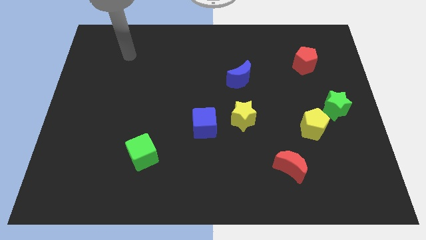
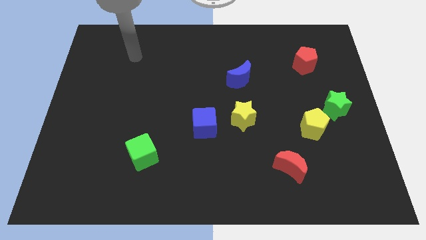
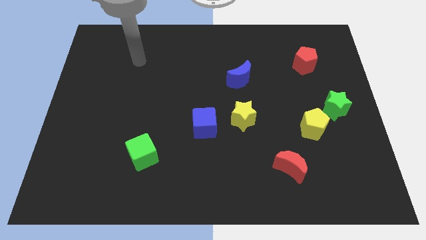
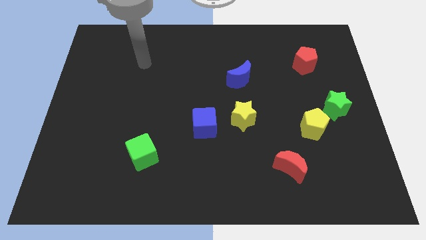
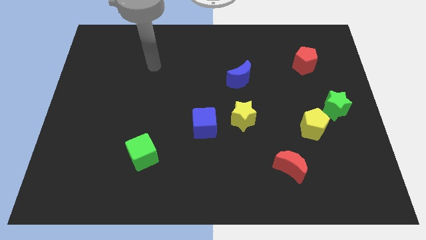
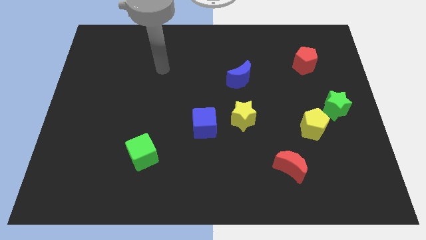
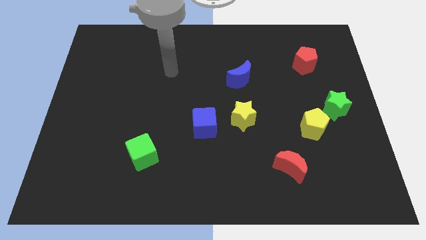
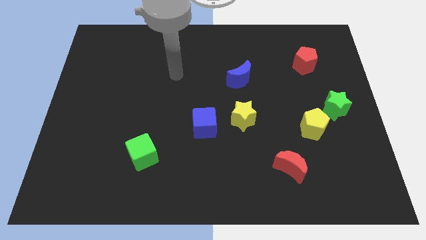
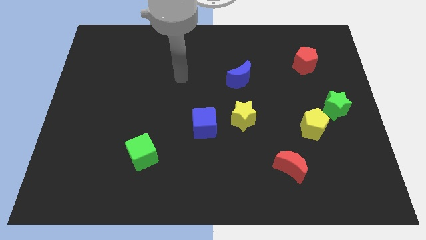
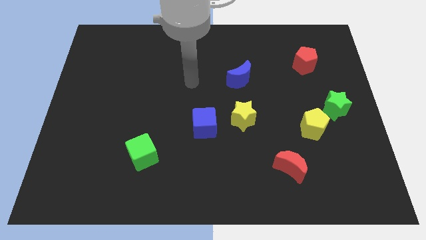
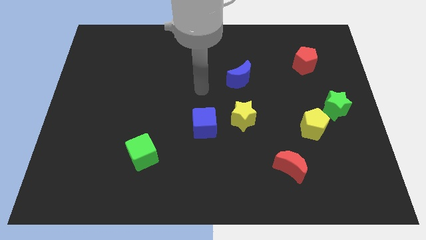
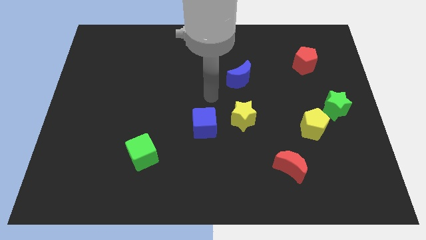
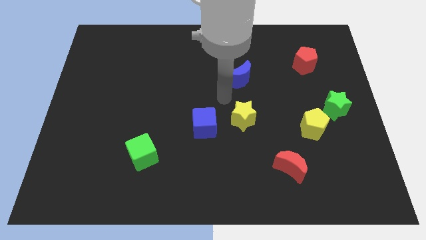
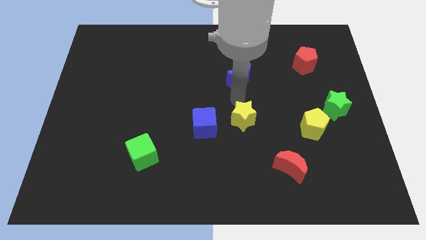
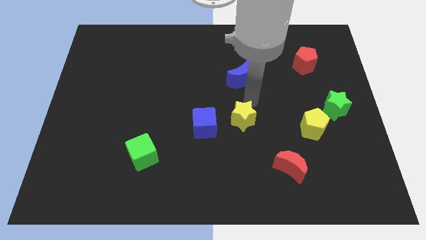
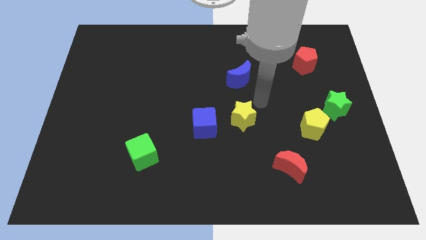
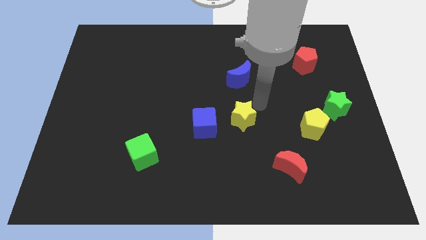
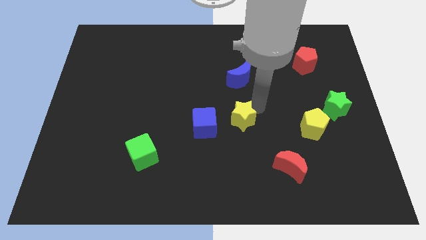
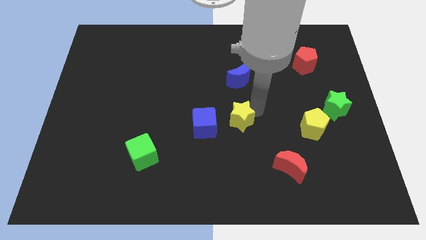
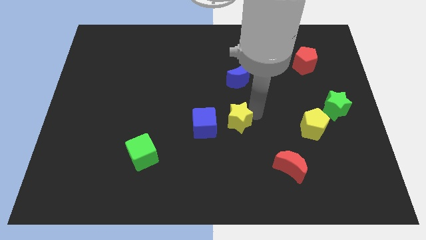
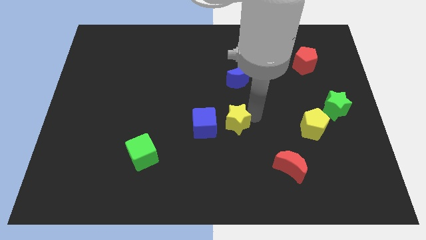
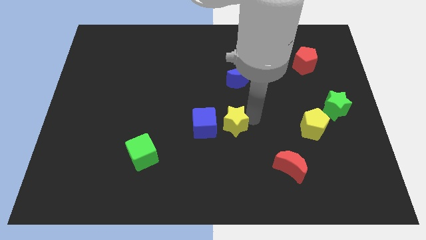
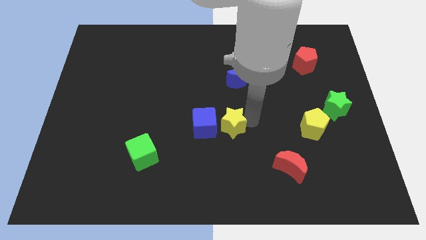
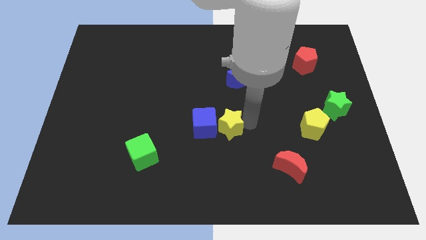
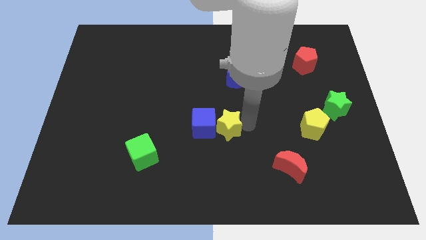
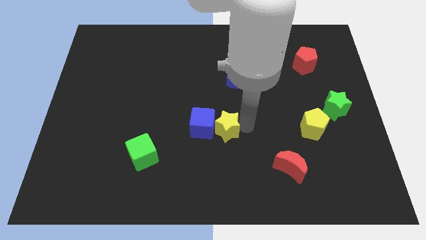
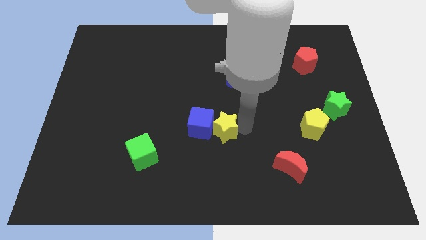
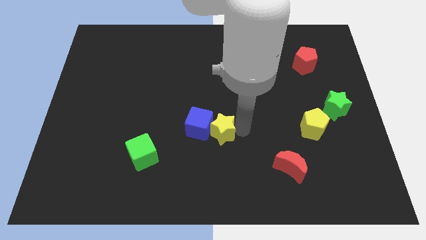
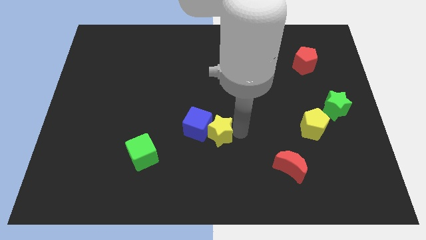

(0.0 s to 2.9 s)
move the yellow star a bit diagonally down and to the left

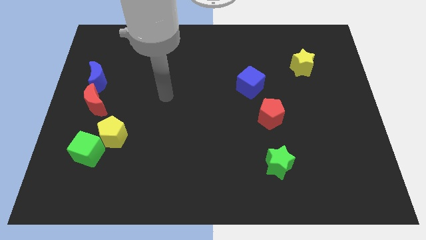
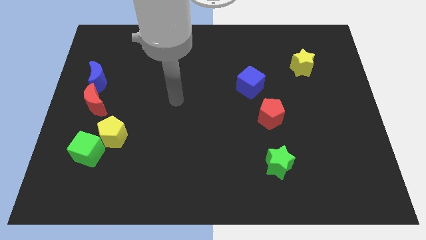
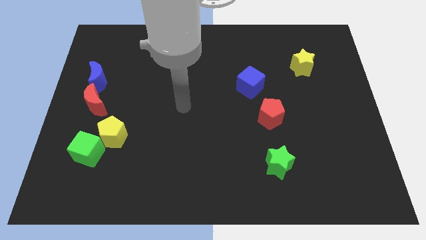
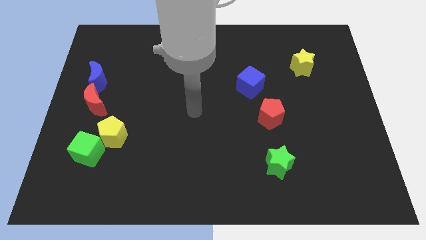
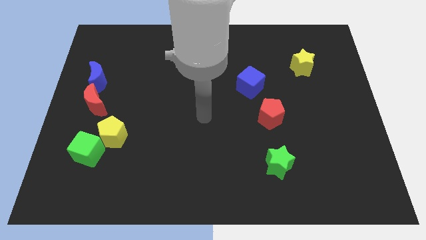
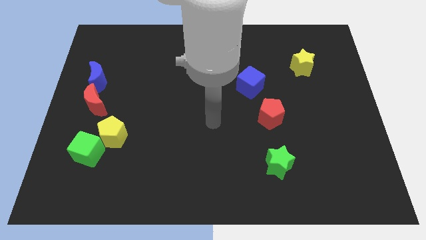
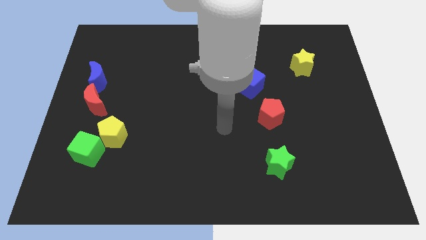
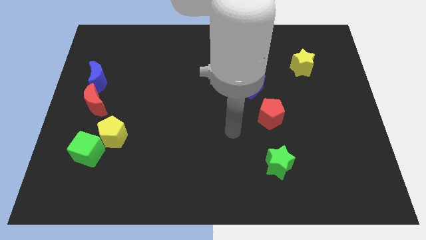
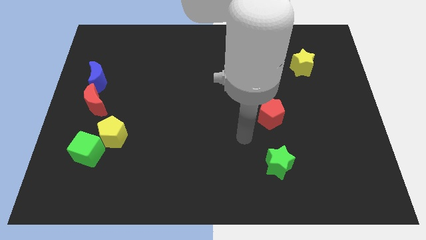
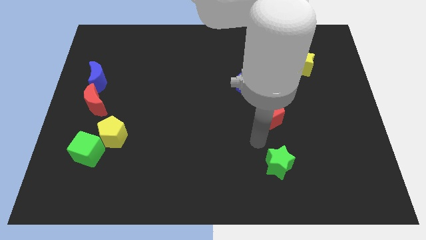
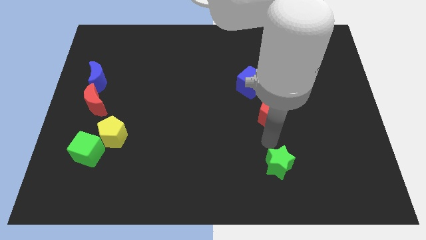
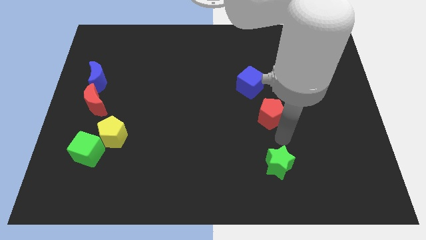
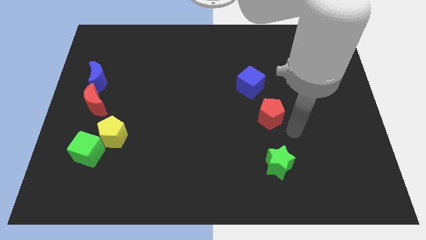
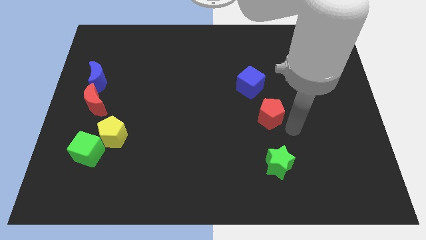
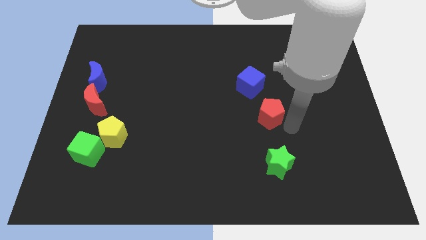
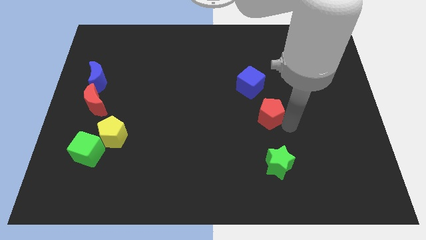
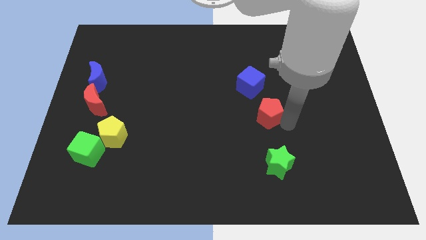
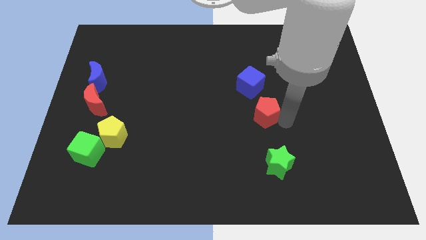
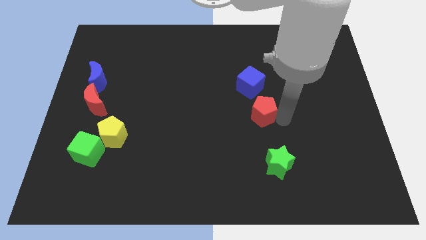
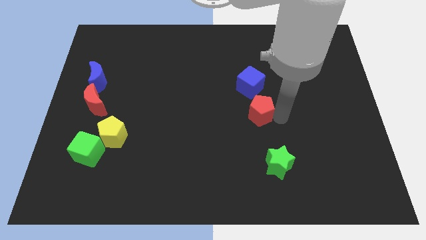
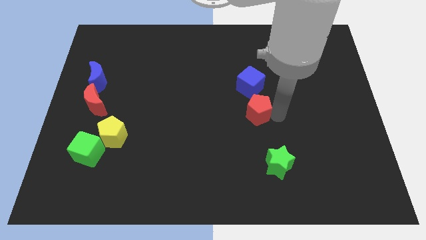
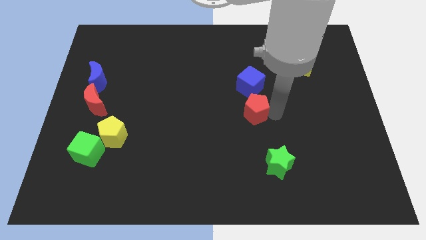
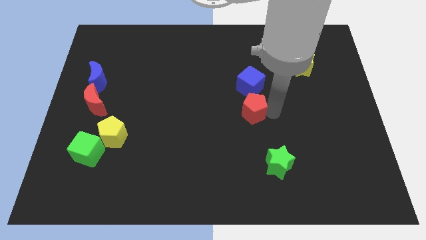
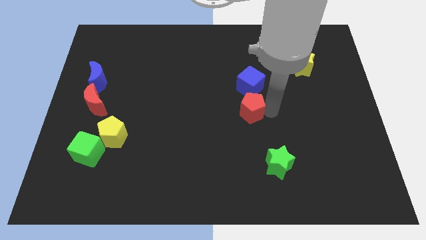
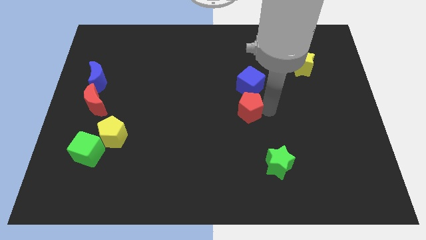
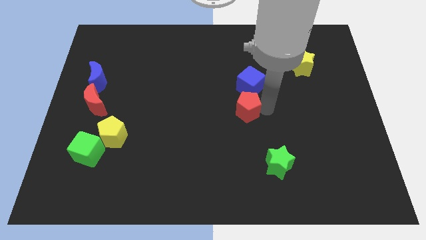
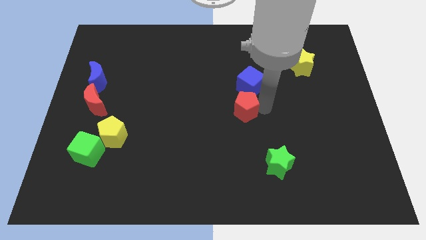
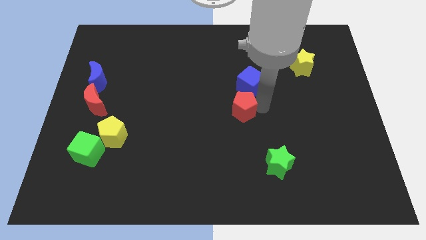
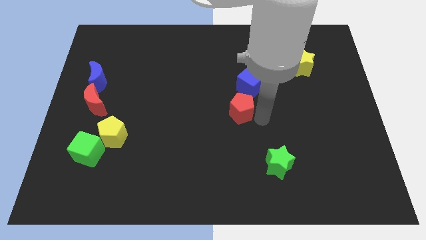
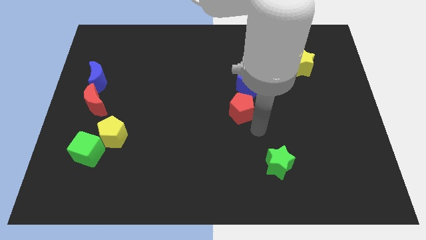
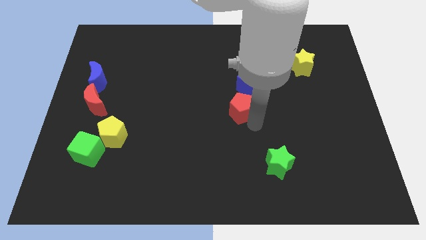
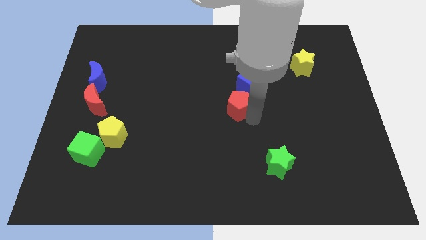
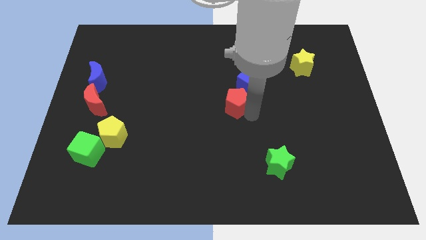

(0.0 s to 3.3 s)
slightly push the red pentagon upwards and then left

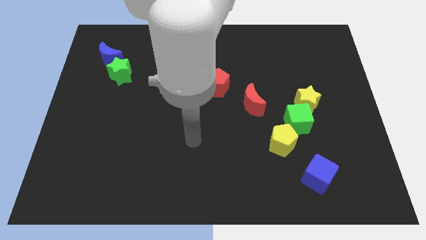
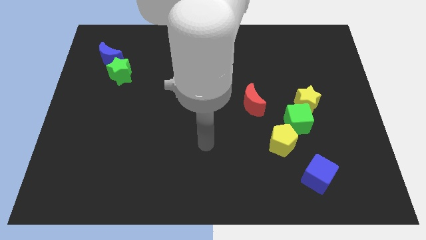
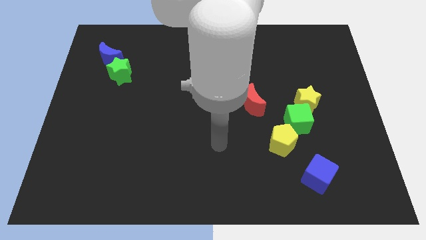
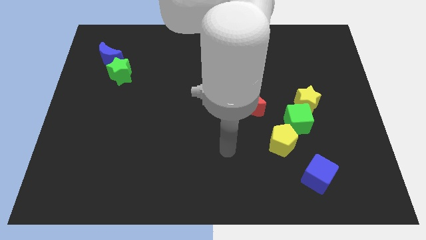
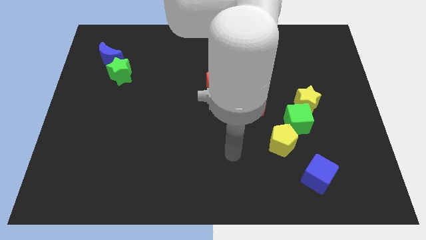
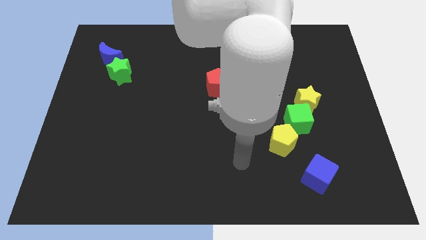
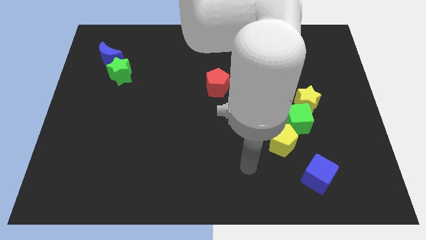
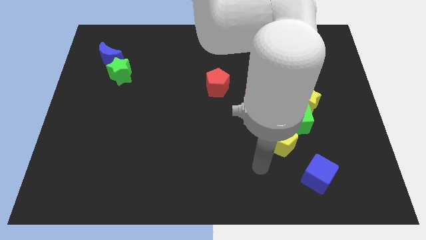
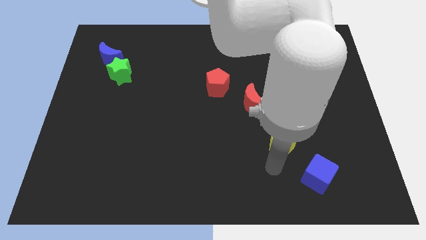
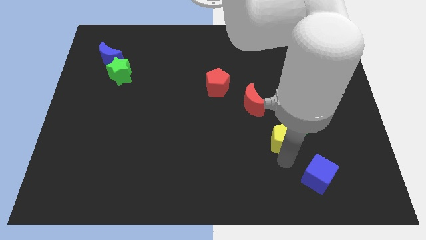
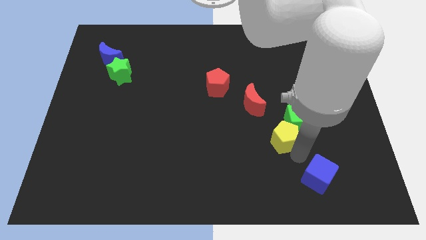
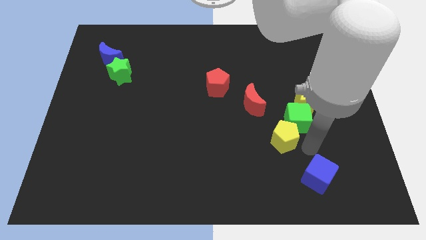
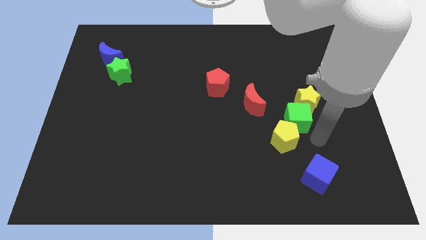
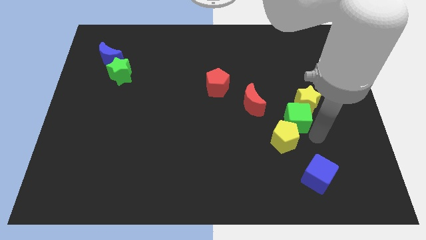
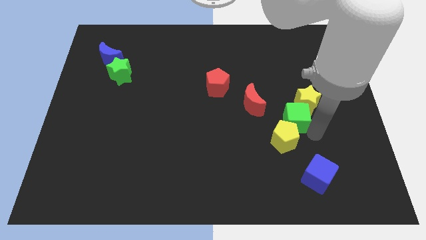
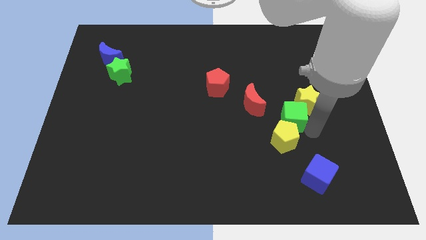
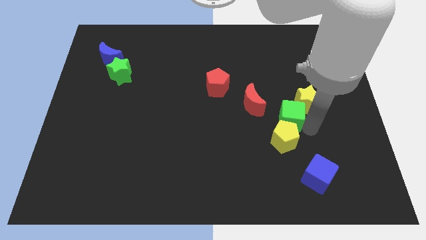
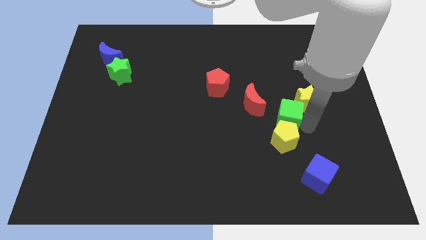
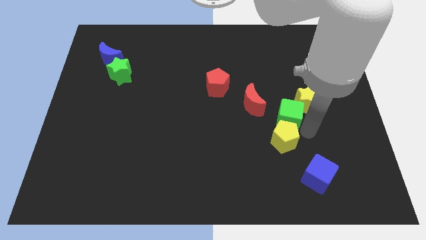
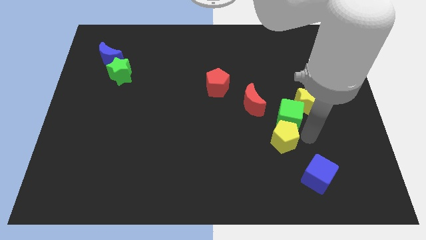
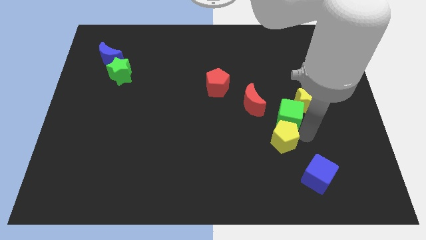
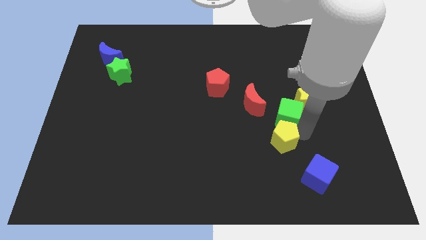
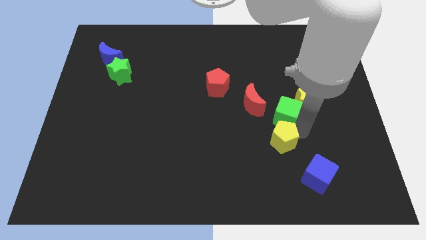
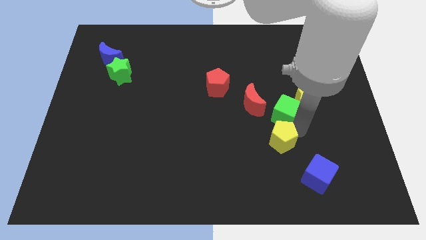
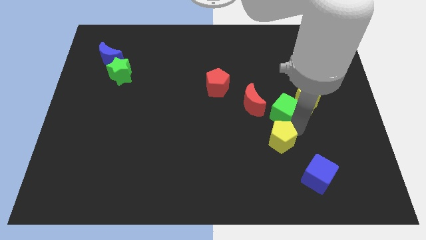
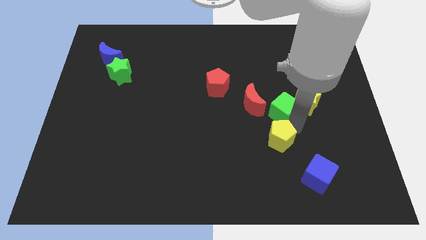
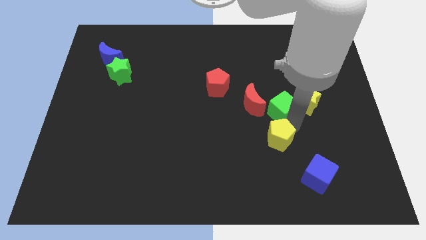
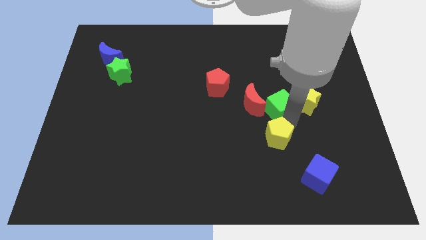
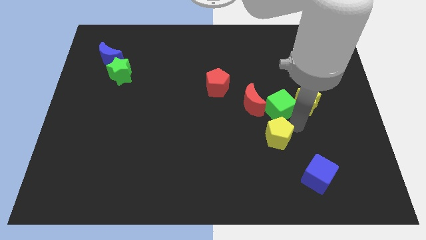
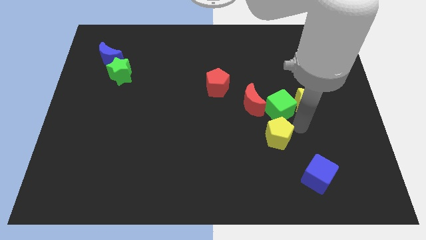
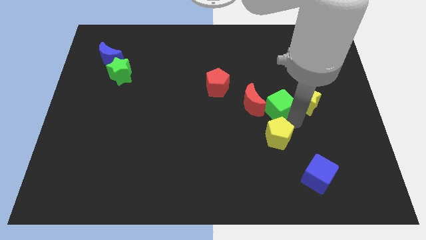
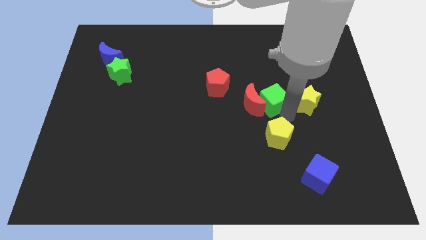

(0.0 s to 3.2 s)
slightly push the green cube upwards and left
